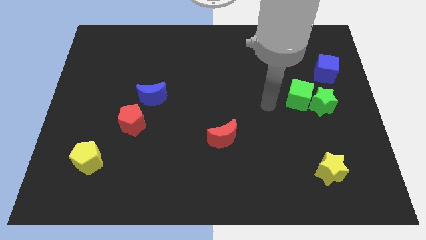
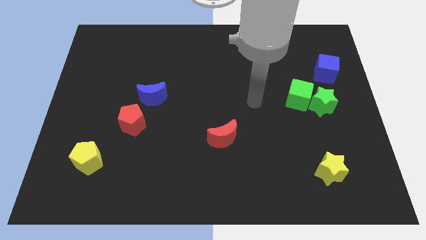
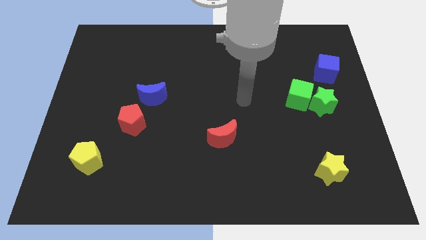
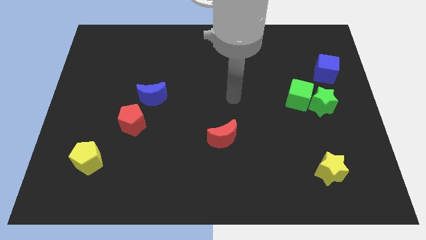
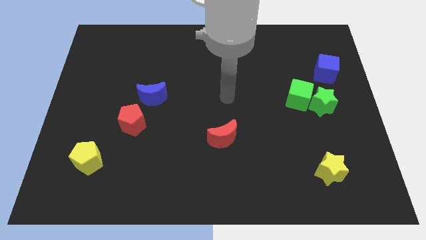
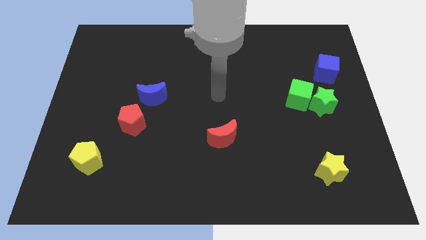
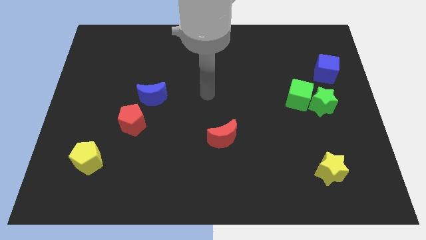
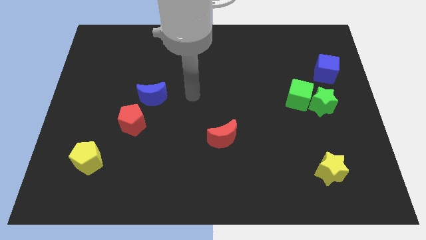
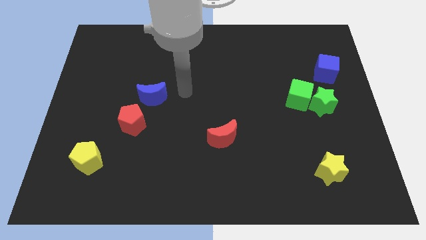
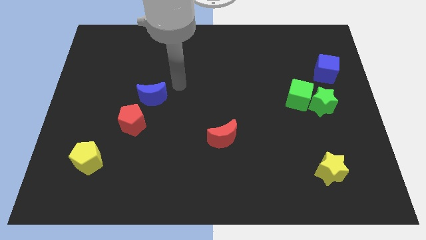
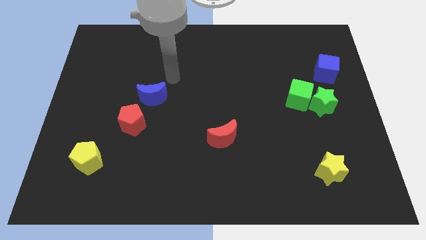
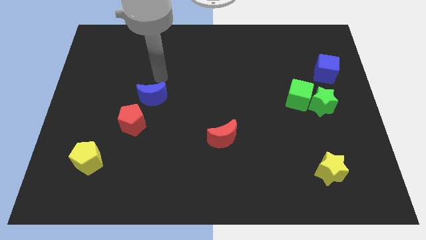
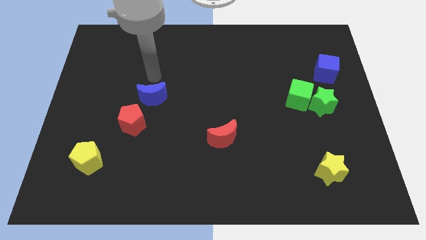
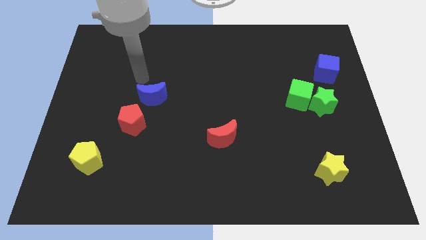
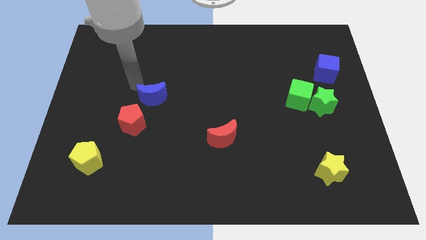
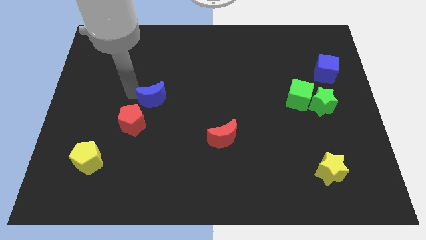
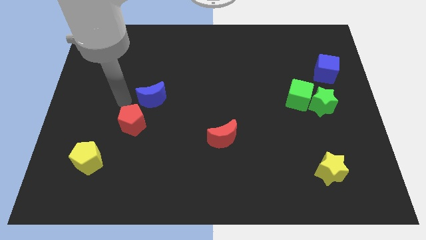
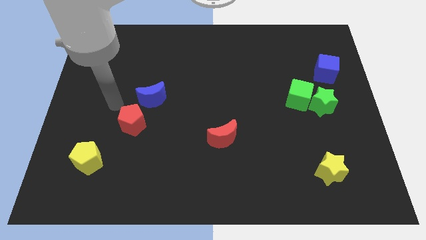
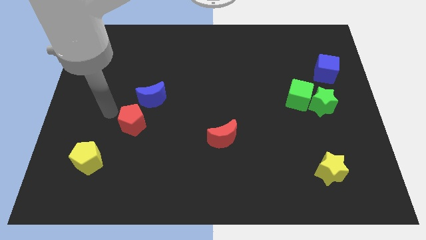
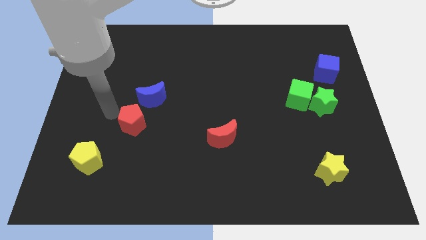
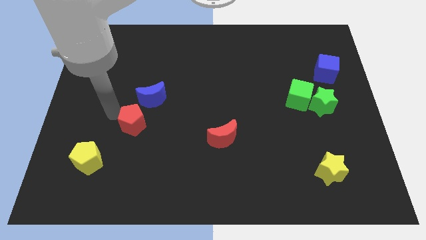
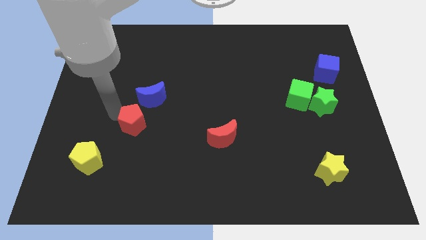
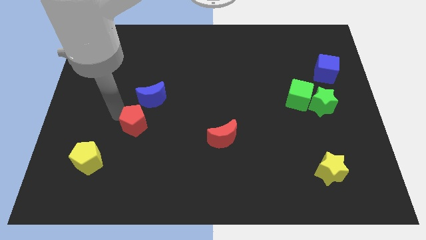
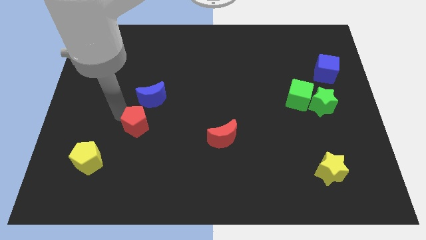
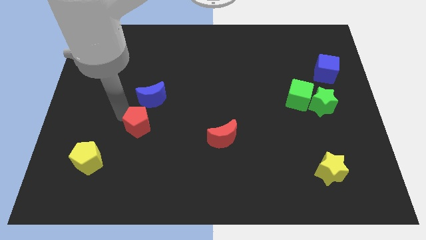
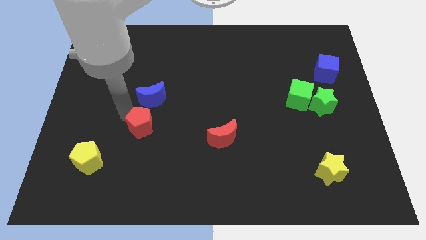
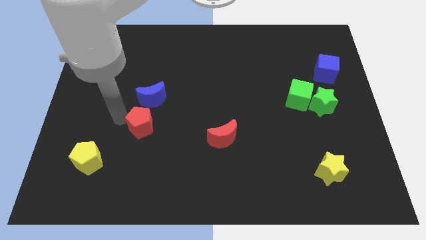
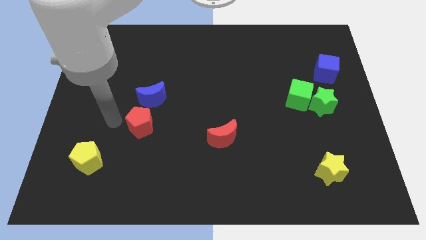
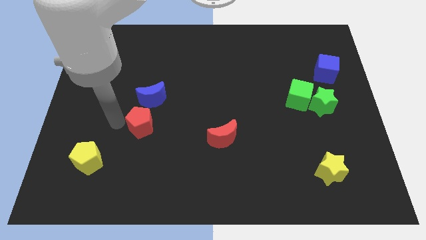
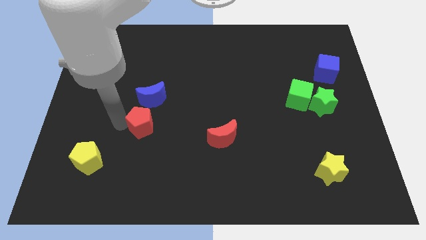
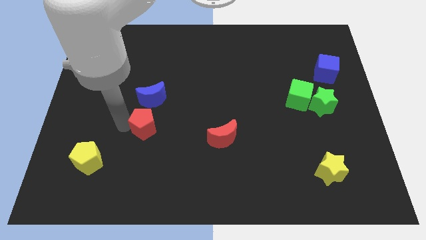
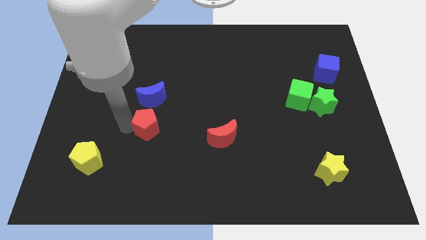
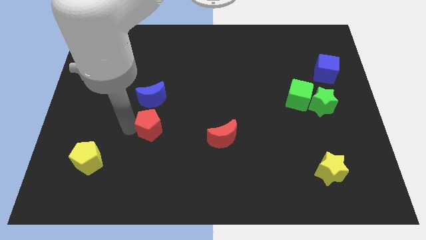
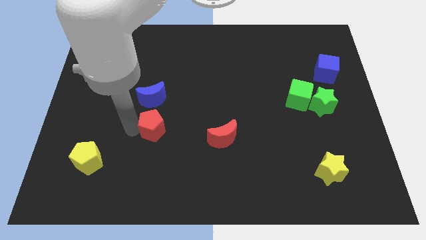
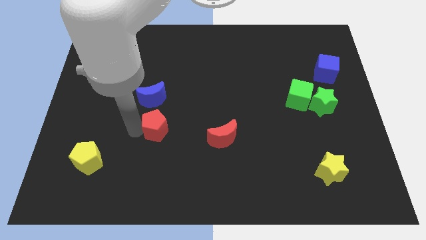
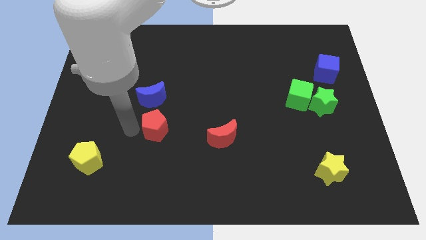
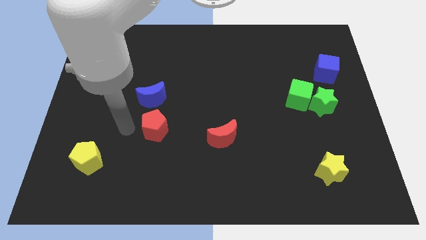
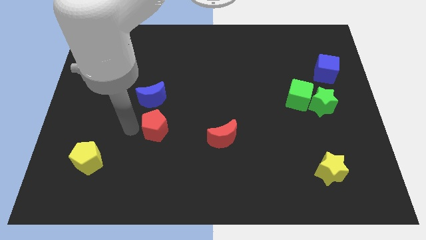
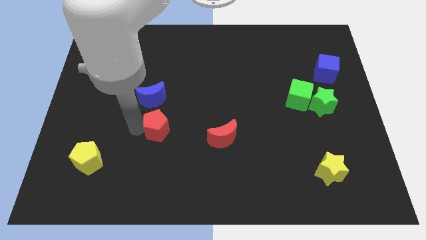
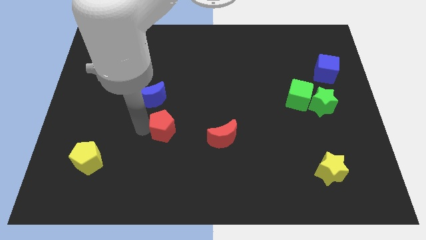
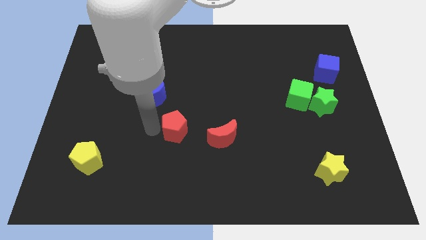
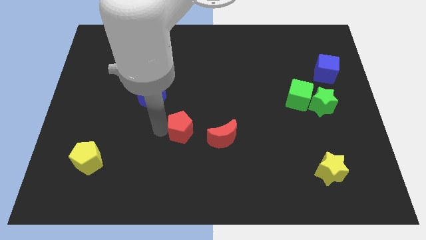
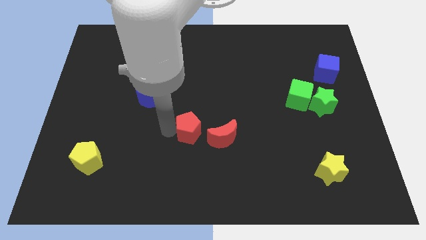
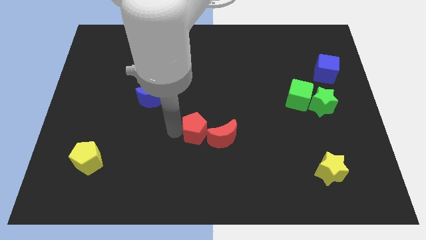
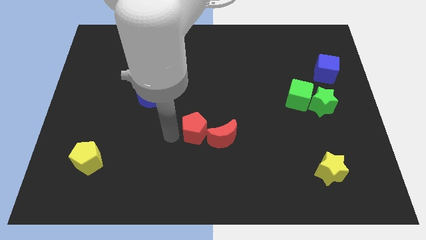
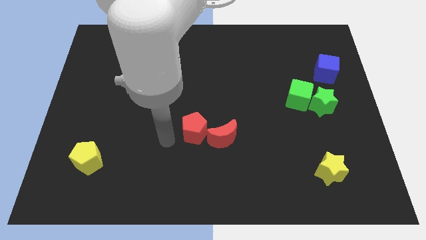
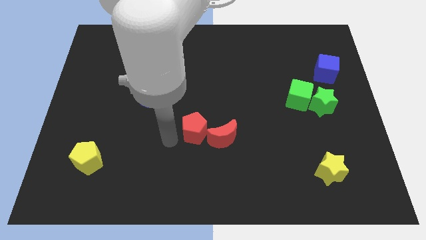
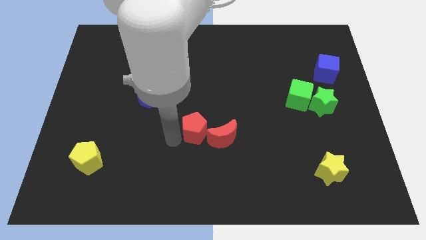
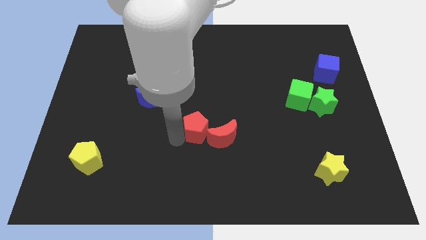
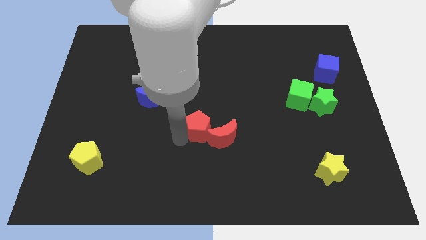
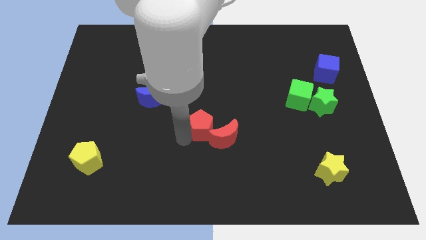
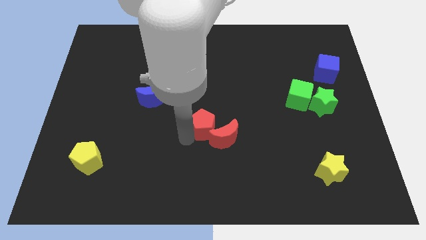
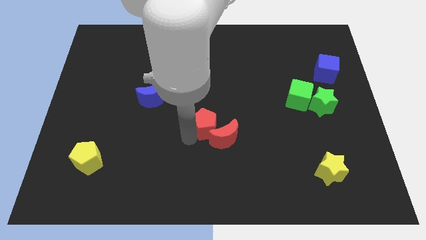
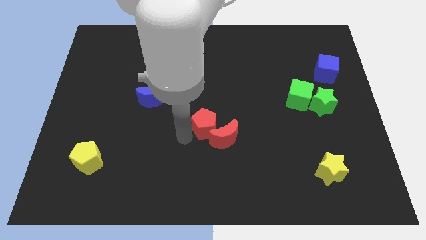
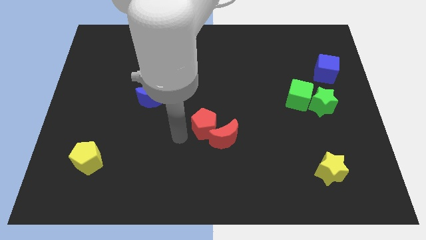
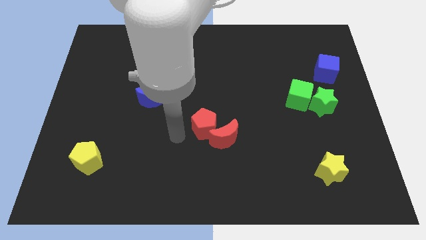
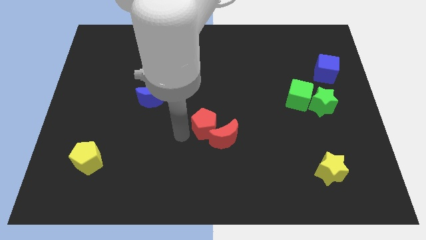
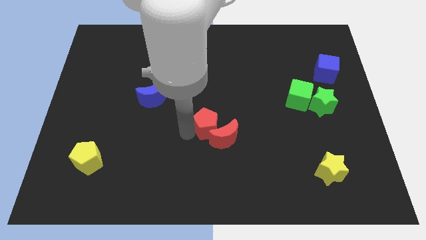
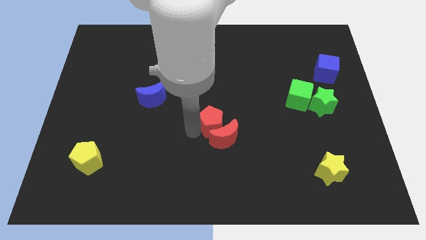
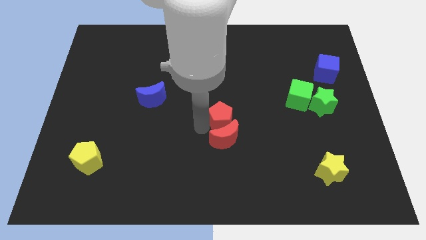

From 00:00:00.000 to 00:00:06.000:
push the red pentagon diagonally up and to the right of the red moon

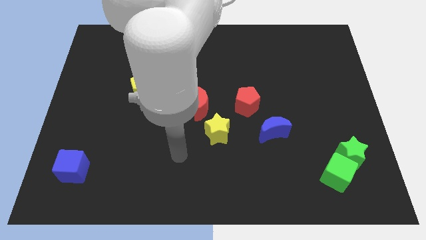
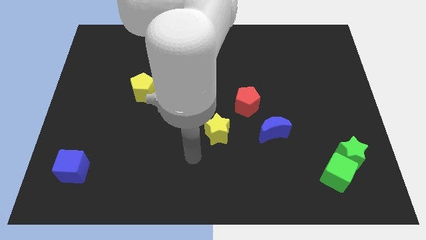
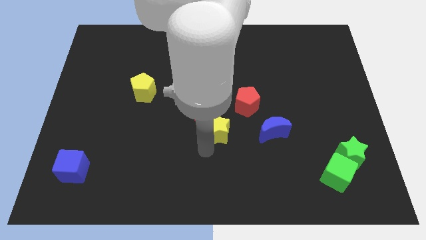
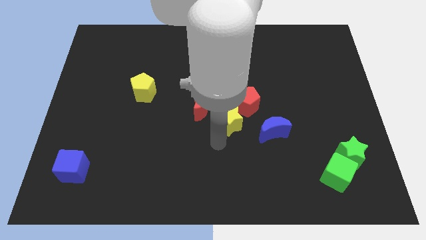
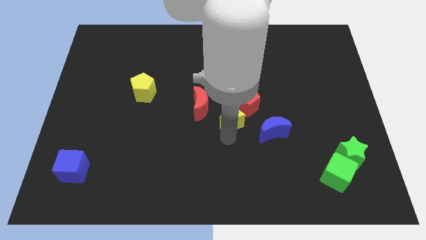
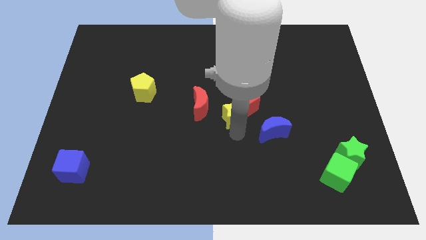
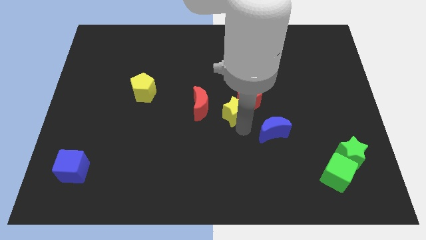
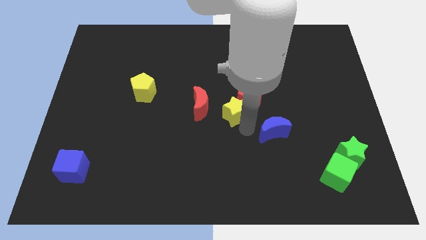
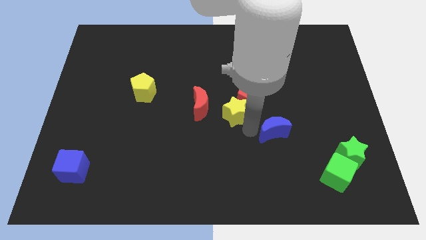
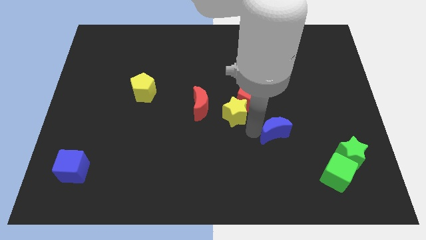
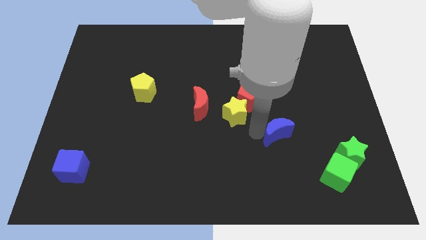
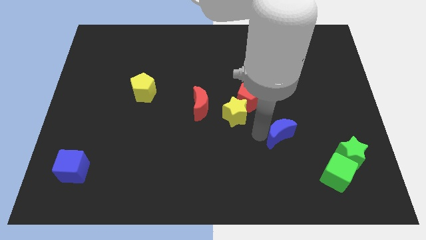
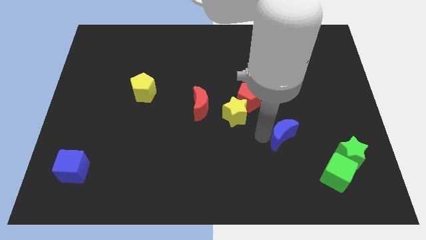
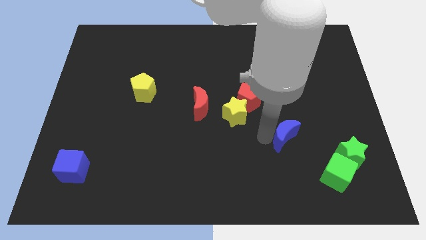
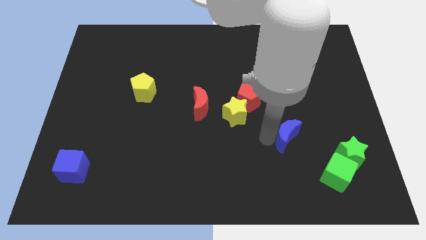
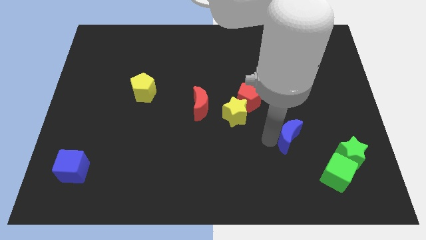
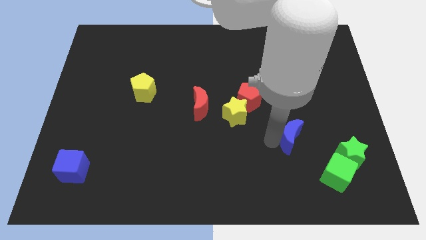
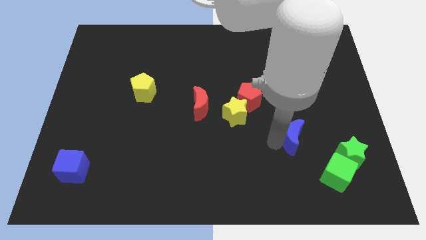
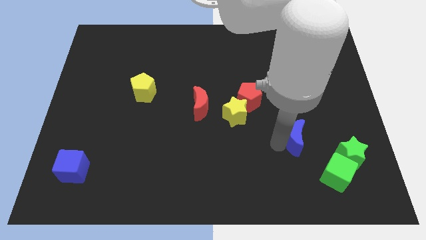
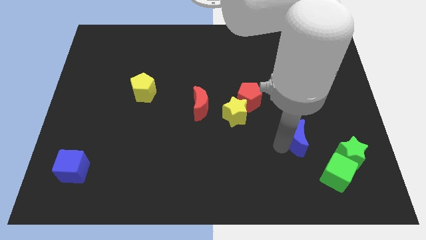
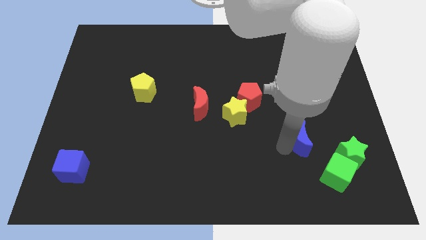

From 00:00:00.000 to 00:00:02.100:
put the blue moon to the top left of the green star
